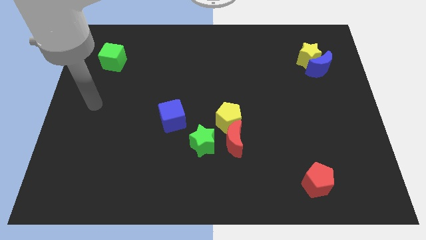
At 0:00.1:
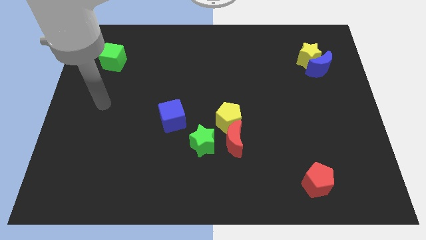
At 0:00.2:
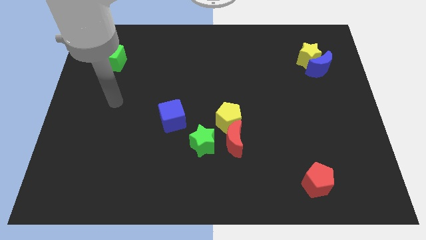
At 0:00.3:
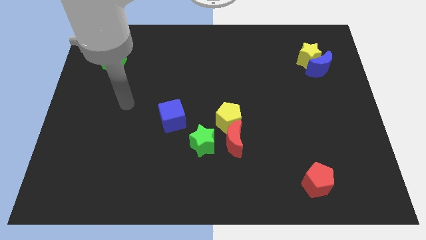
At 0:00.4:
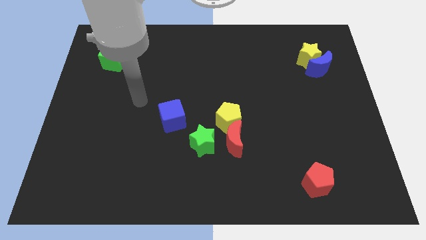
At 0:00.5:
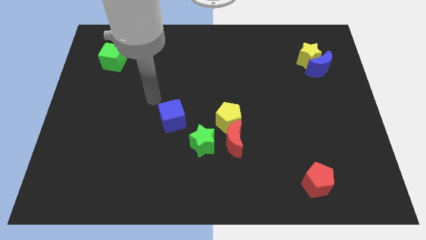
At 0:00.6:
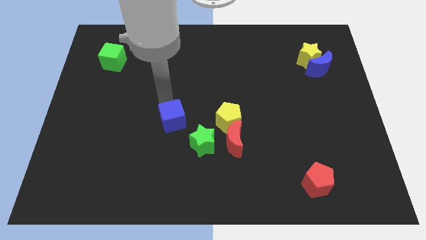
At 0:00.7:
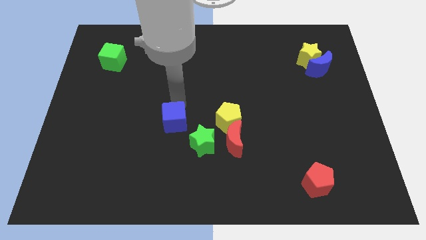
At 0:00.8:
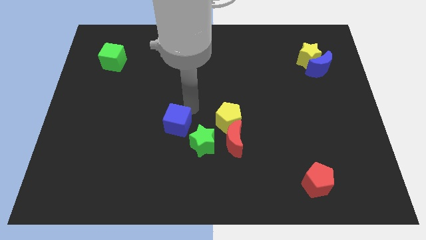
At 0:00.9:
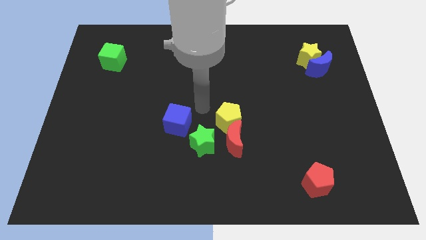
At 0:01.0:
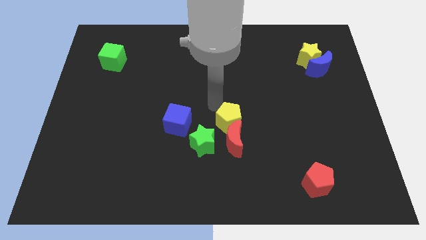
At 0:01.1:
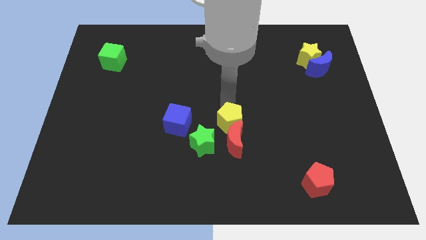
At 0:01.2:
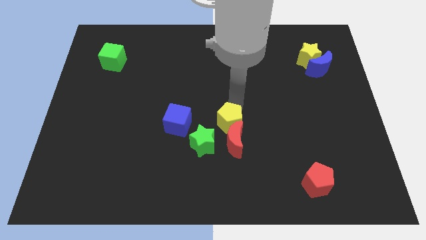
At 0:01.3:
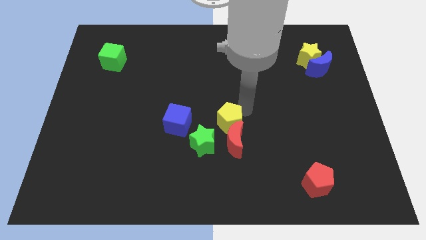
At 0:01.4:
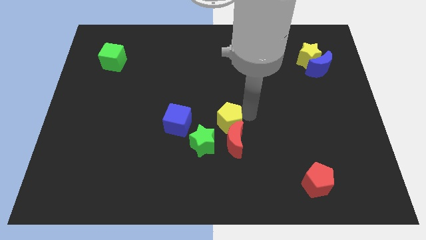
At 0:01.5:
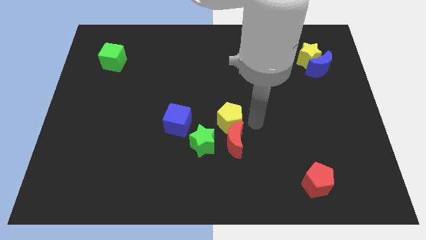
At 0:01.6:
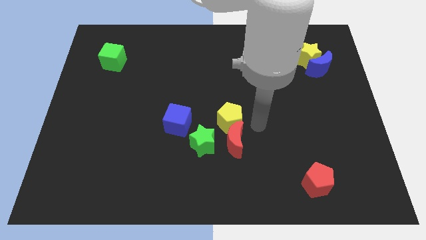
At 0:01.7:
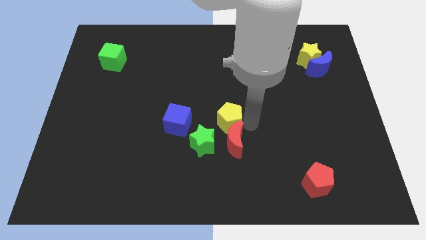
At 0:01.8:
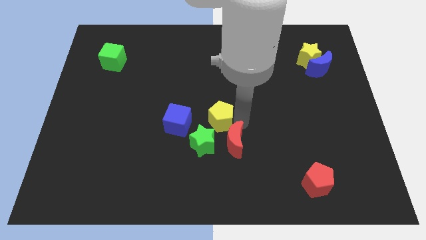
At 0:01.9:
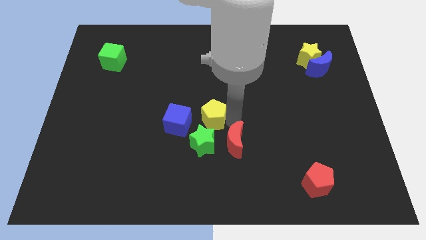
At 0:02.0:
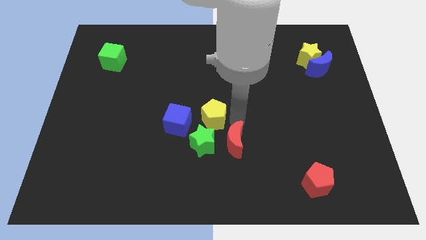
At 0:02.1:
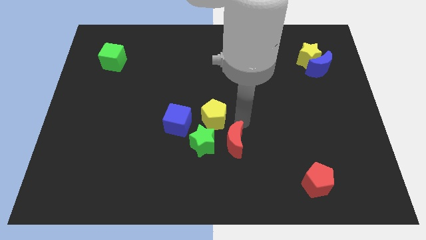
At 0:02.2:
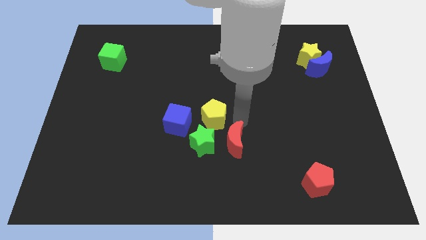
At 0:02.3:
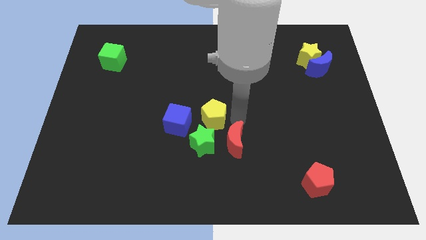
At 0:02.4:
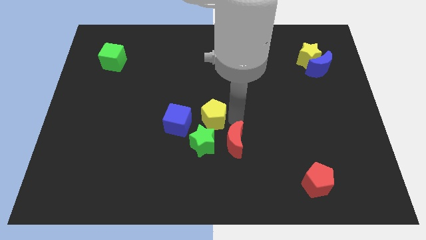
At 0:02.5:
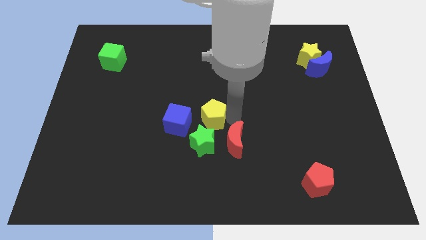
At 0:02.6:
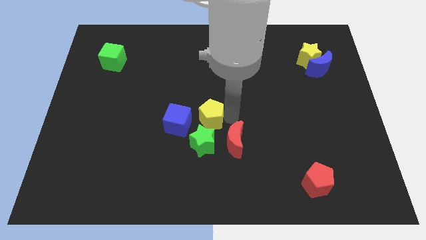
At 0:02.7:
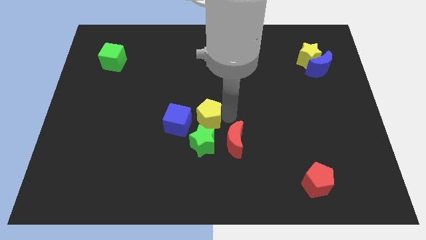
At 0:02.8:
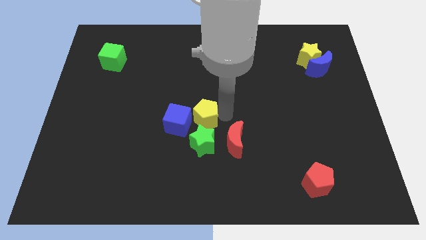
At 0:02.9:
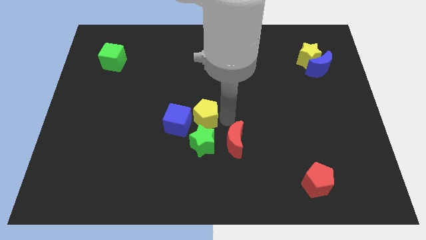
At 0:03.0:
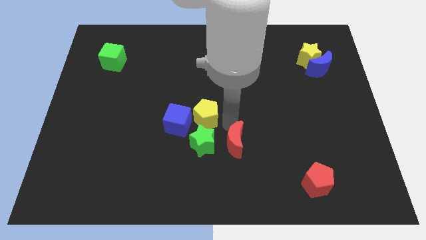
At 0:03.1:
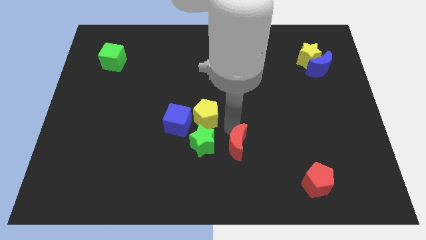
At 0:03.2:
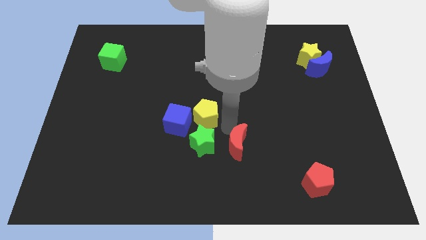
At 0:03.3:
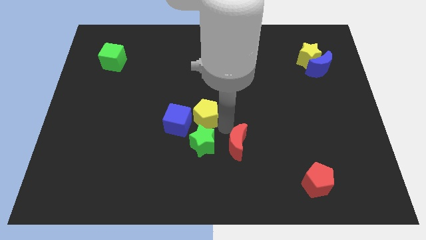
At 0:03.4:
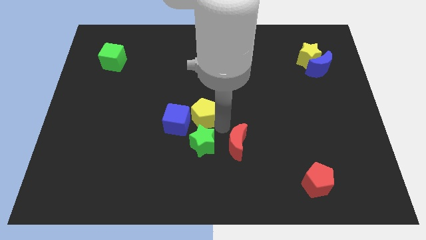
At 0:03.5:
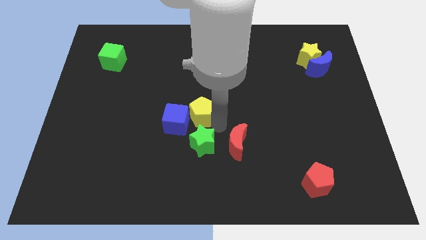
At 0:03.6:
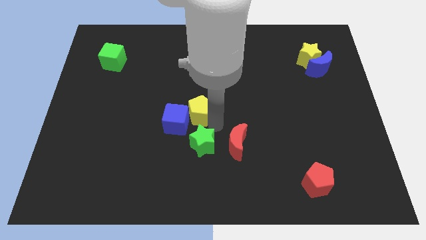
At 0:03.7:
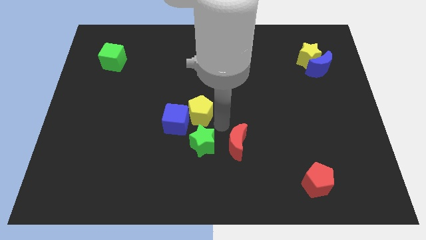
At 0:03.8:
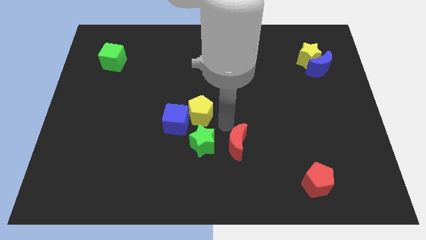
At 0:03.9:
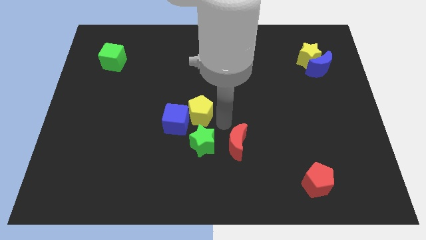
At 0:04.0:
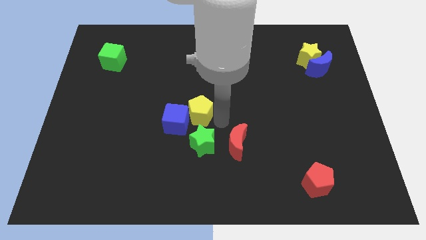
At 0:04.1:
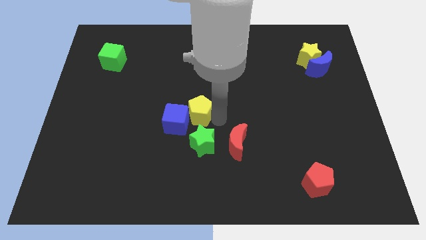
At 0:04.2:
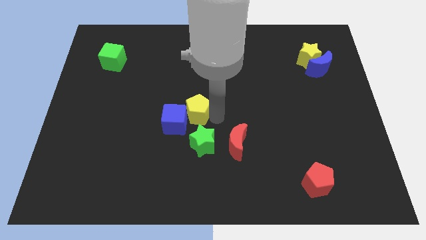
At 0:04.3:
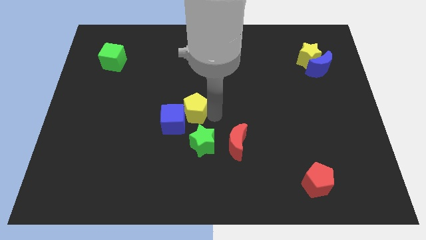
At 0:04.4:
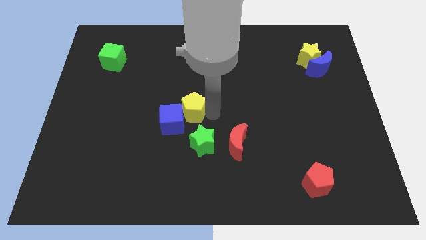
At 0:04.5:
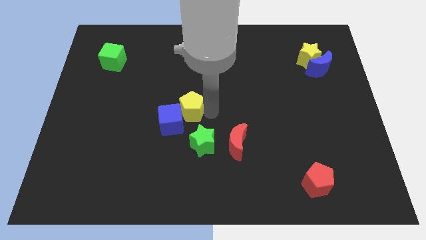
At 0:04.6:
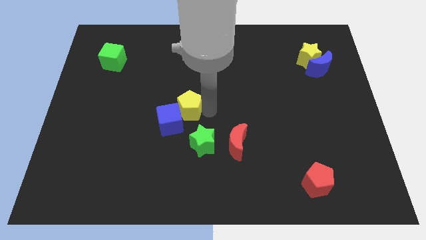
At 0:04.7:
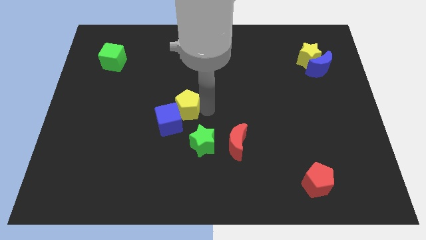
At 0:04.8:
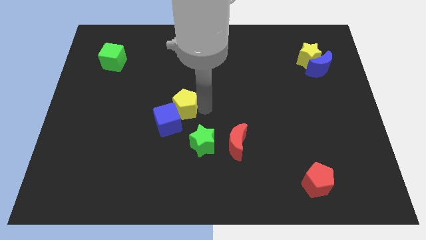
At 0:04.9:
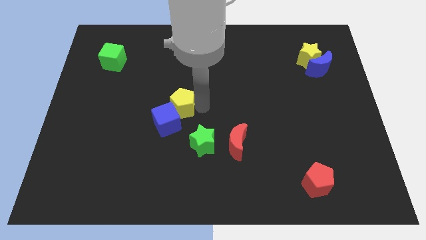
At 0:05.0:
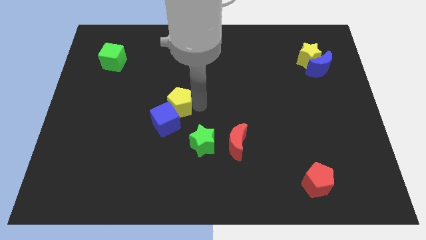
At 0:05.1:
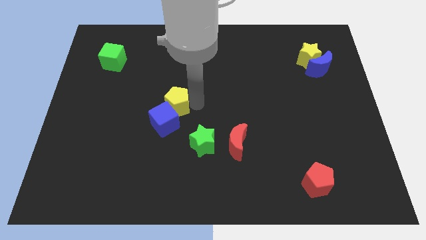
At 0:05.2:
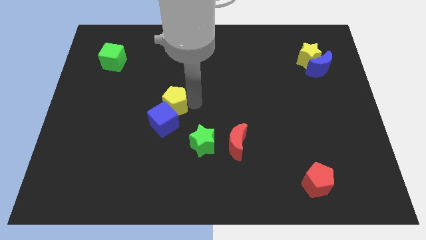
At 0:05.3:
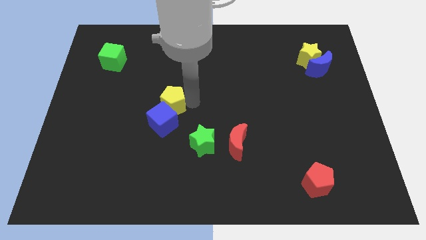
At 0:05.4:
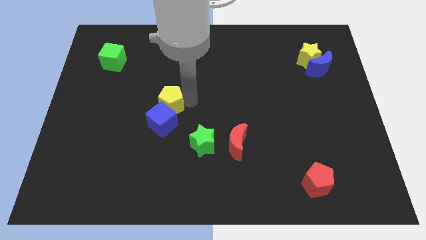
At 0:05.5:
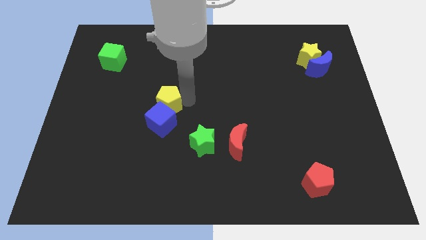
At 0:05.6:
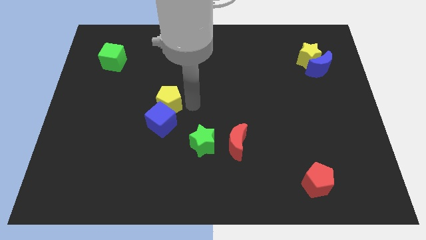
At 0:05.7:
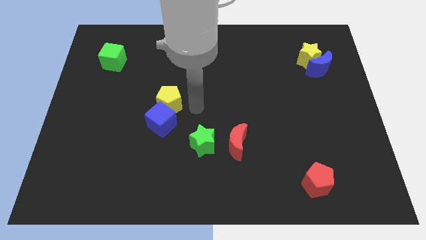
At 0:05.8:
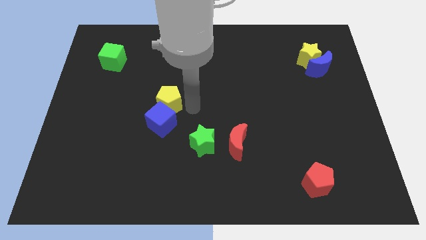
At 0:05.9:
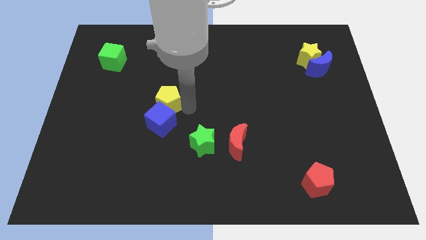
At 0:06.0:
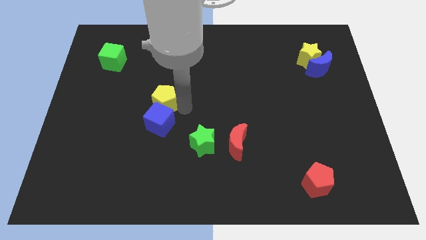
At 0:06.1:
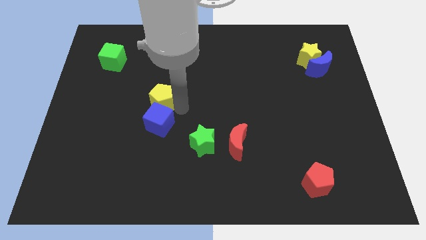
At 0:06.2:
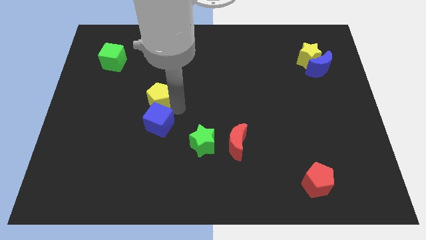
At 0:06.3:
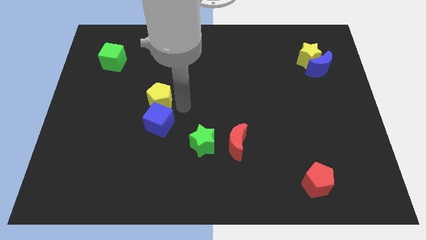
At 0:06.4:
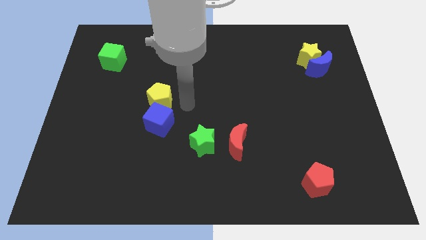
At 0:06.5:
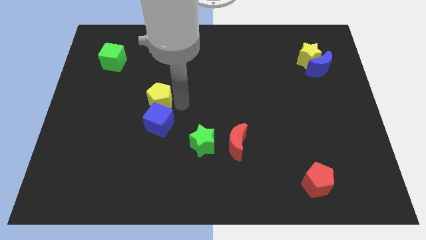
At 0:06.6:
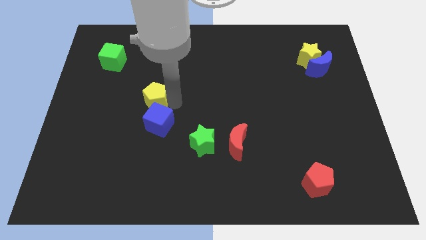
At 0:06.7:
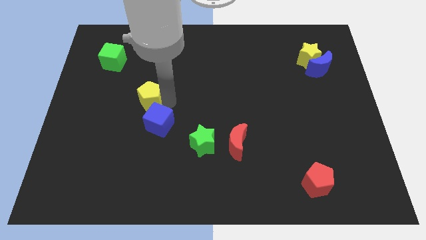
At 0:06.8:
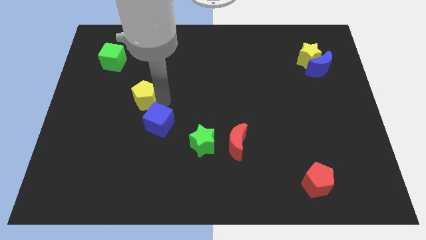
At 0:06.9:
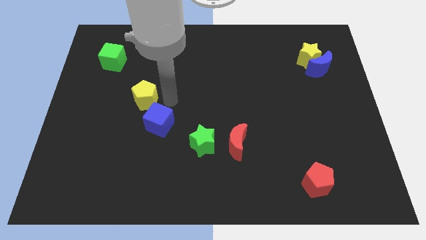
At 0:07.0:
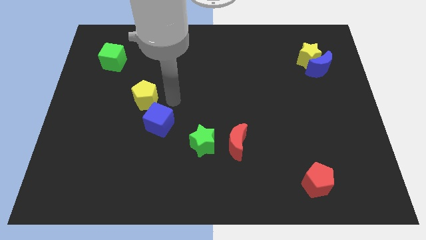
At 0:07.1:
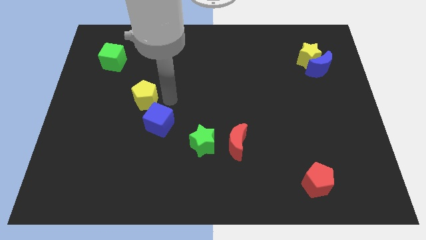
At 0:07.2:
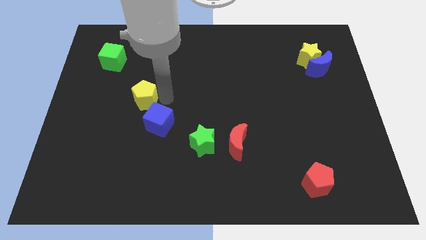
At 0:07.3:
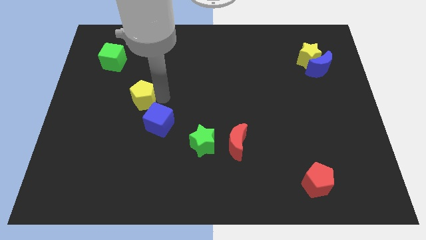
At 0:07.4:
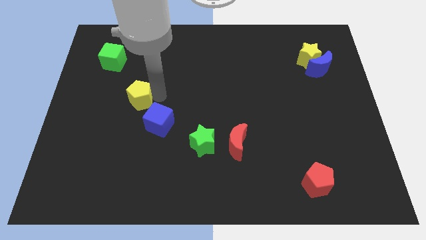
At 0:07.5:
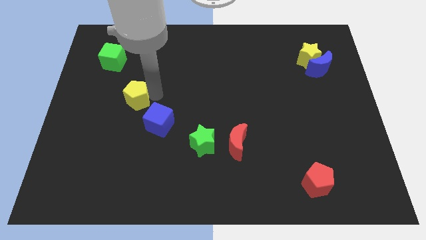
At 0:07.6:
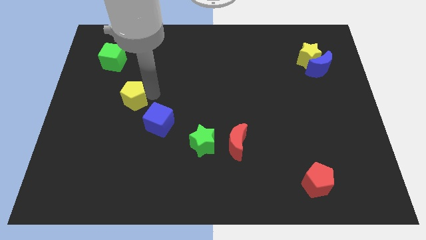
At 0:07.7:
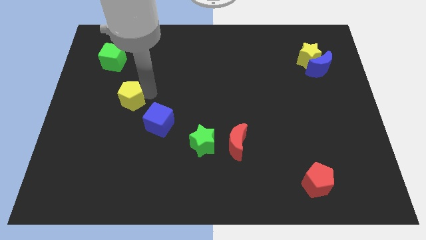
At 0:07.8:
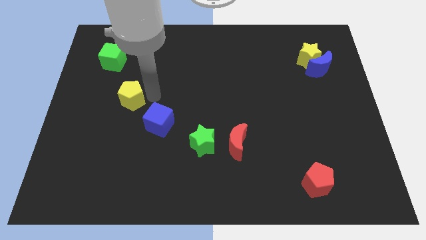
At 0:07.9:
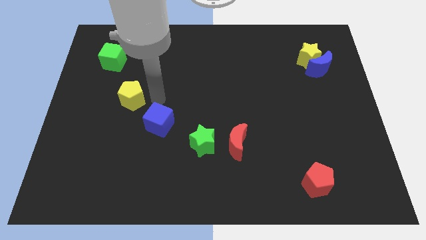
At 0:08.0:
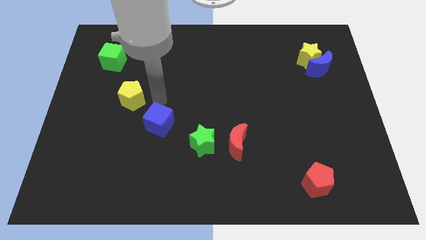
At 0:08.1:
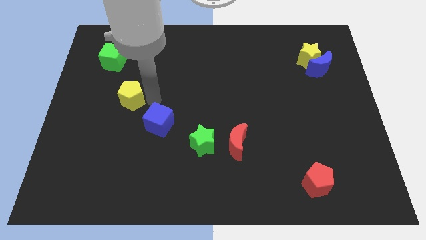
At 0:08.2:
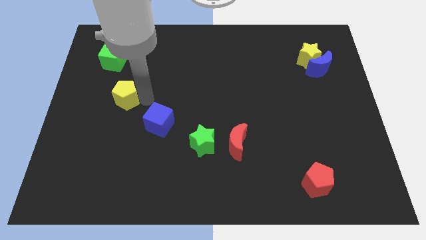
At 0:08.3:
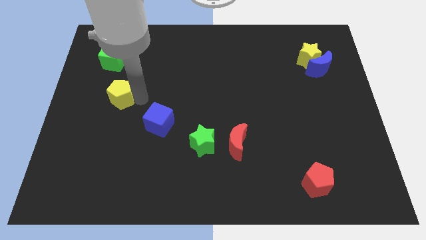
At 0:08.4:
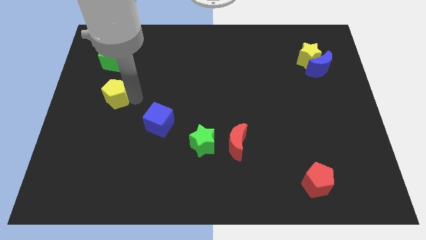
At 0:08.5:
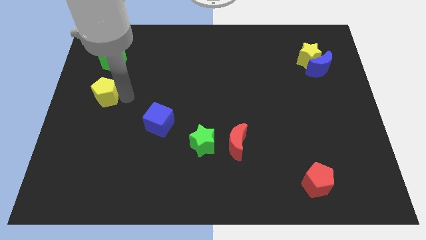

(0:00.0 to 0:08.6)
move the yellow pentagon to the left side of the board
